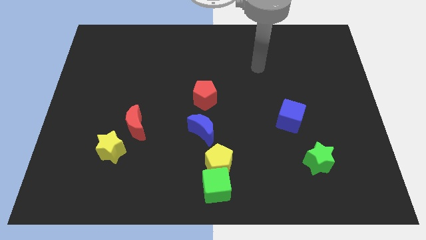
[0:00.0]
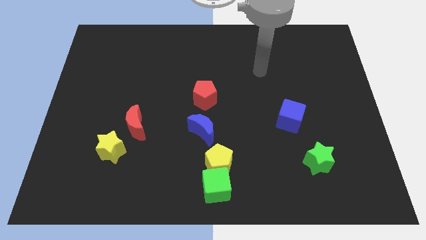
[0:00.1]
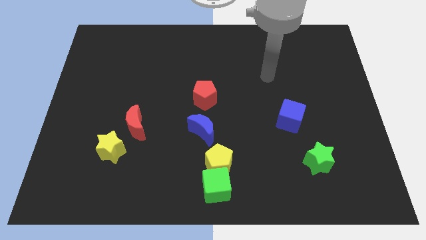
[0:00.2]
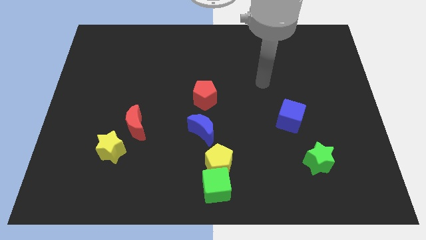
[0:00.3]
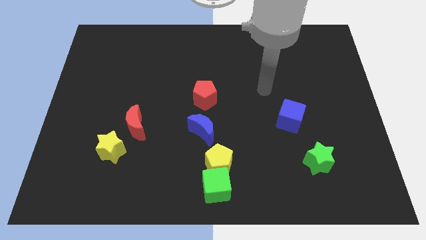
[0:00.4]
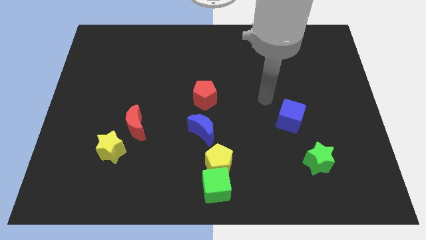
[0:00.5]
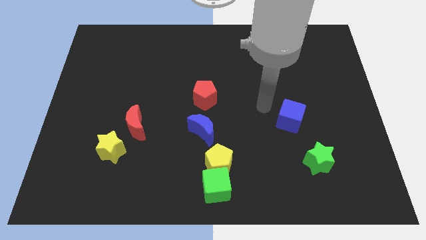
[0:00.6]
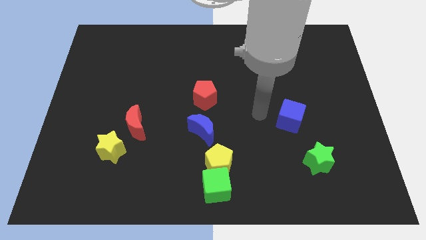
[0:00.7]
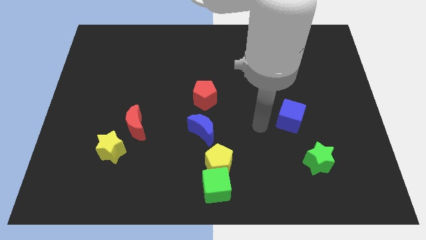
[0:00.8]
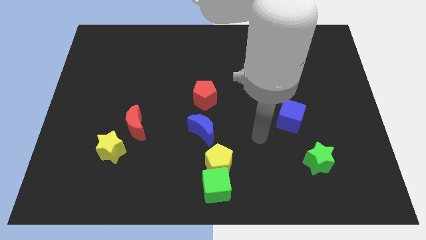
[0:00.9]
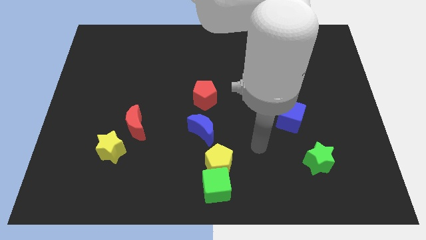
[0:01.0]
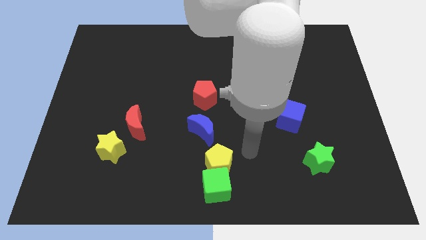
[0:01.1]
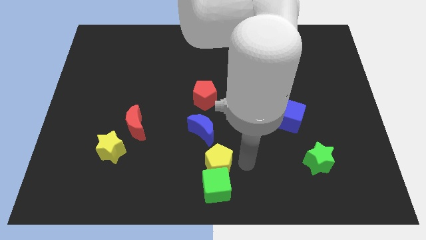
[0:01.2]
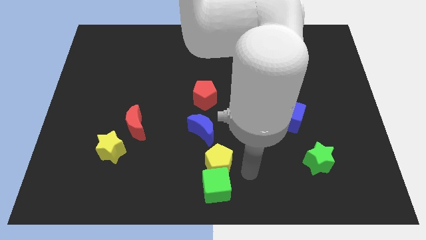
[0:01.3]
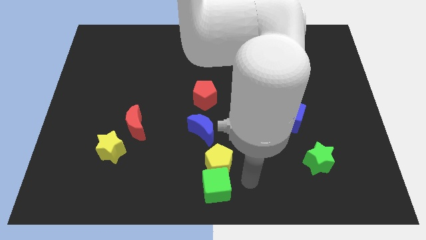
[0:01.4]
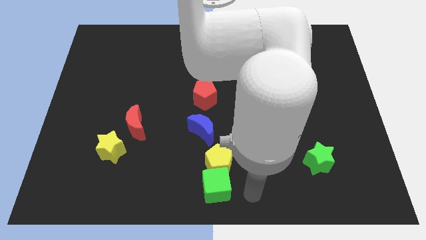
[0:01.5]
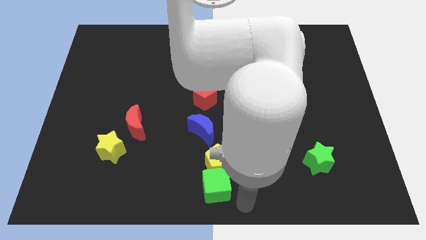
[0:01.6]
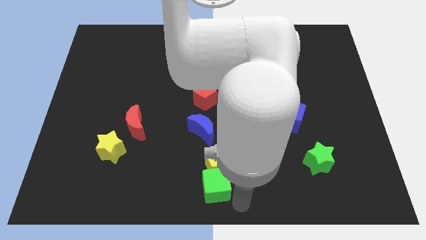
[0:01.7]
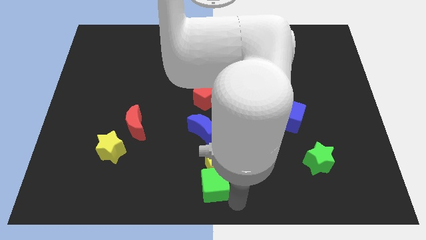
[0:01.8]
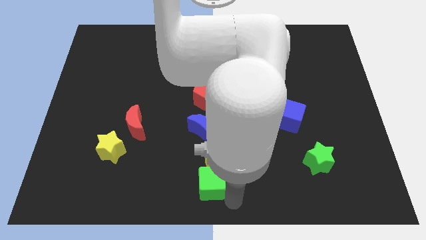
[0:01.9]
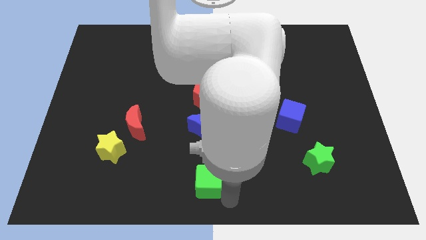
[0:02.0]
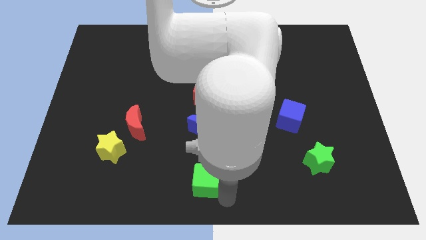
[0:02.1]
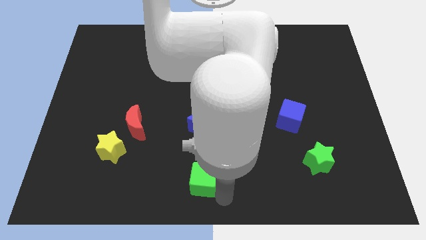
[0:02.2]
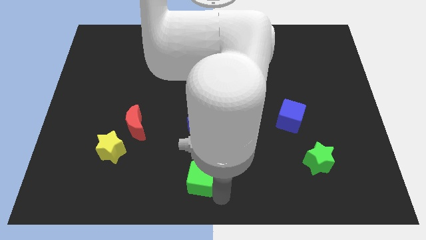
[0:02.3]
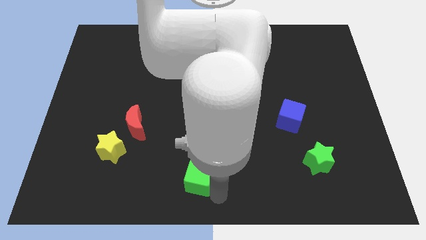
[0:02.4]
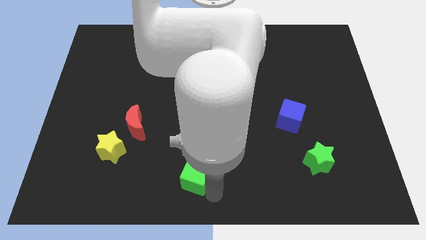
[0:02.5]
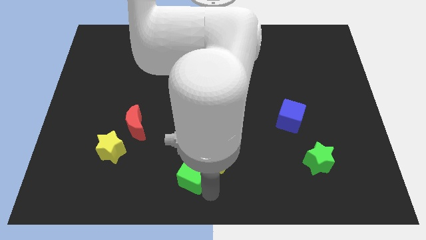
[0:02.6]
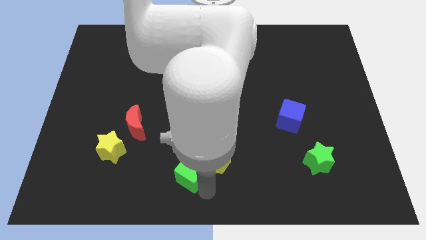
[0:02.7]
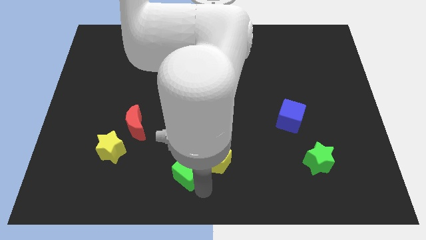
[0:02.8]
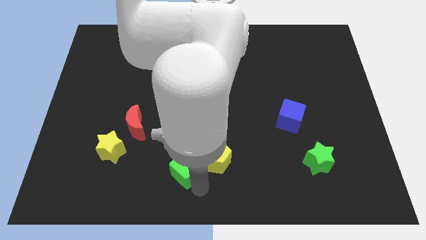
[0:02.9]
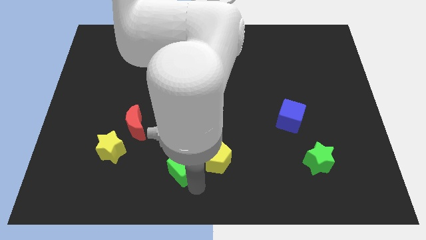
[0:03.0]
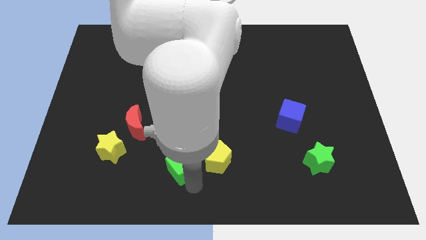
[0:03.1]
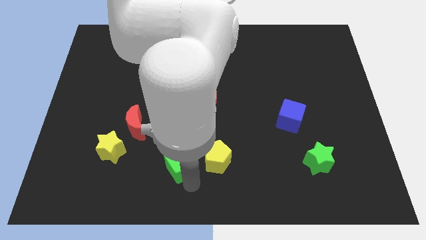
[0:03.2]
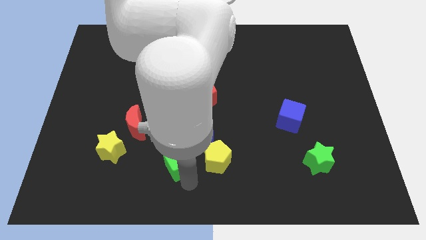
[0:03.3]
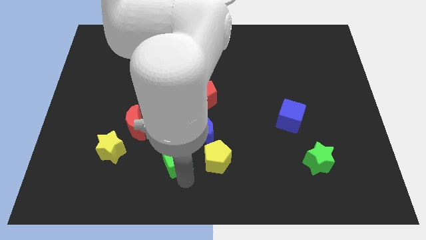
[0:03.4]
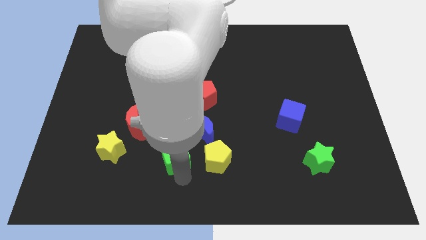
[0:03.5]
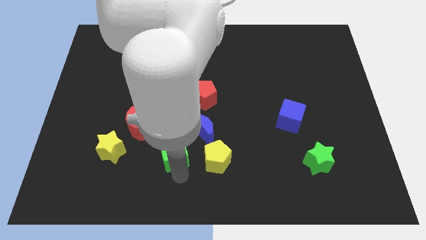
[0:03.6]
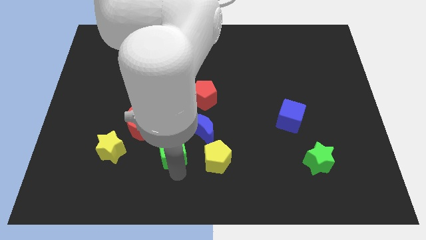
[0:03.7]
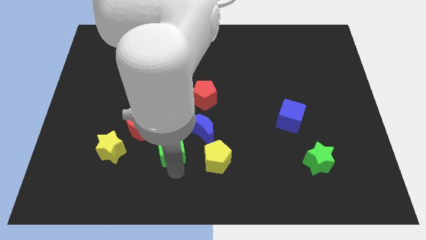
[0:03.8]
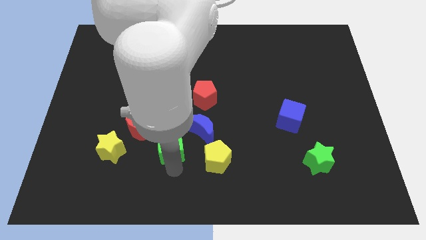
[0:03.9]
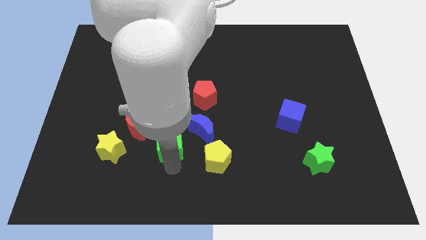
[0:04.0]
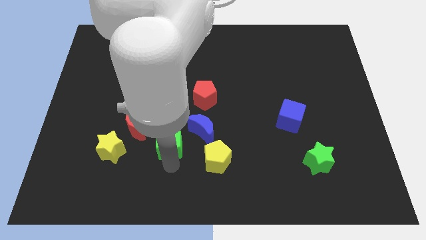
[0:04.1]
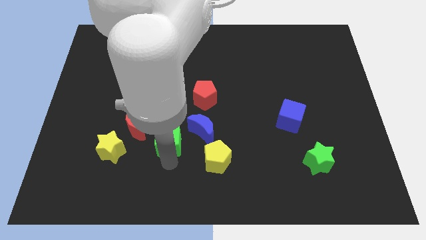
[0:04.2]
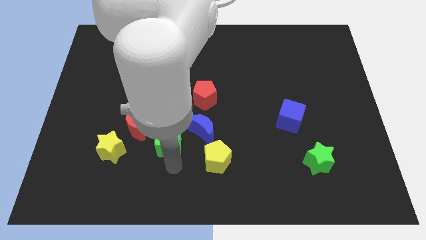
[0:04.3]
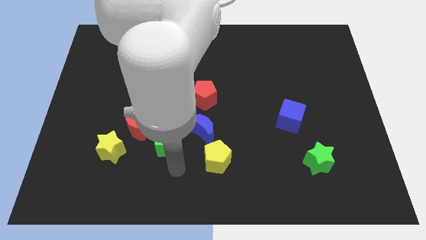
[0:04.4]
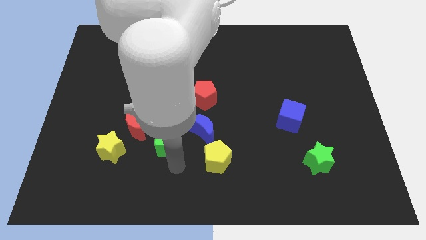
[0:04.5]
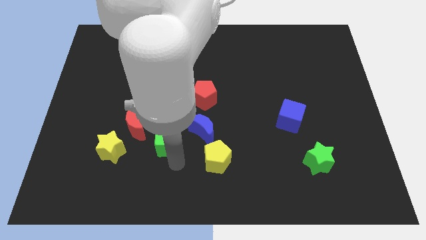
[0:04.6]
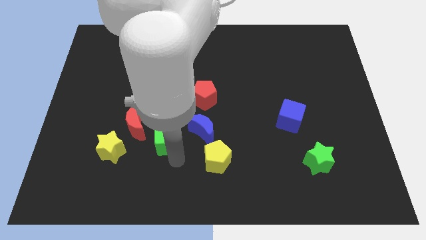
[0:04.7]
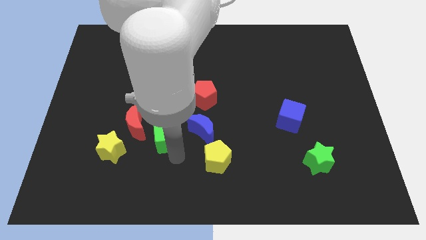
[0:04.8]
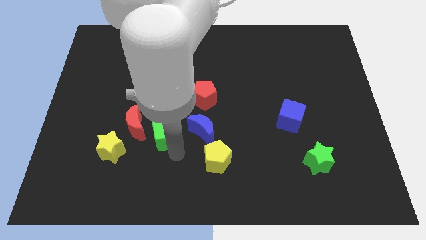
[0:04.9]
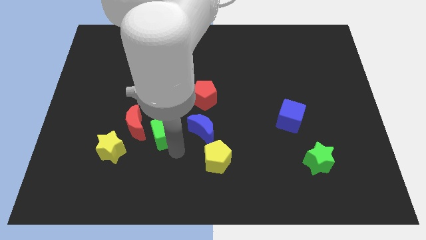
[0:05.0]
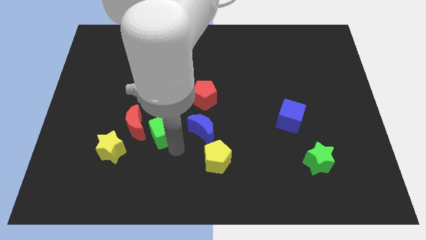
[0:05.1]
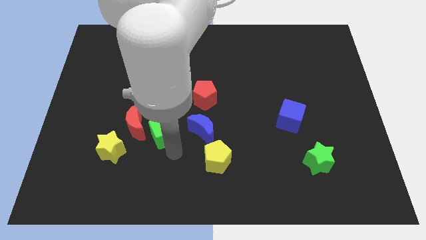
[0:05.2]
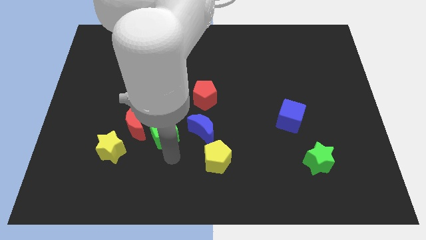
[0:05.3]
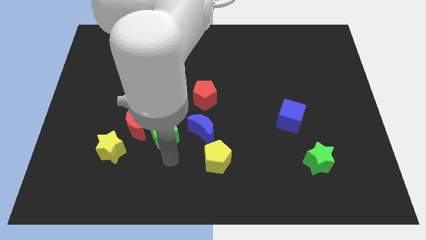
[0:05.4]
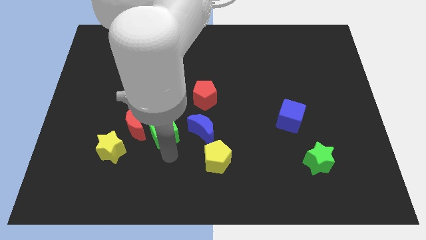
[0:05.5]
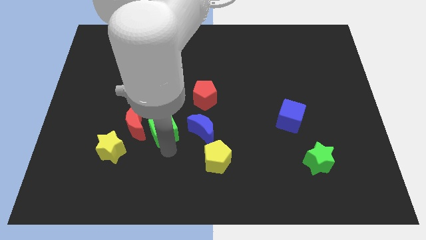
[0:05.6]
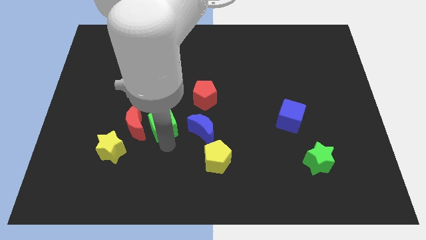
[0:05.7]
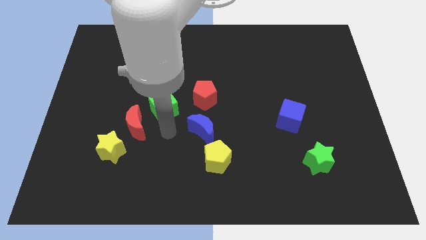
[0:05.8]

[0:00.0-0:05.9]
push the green cube up and left

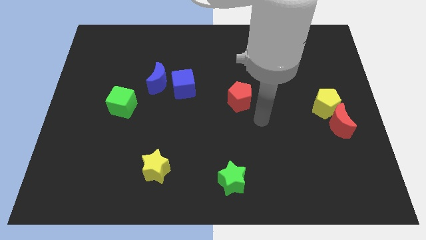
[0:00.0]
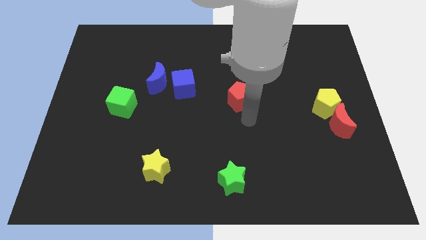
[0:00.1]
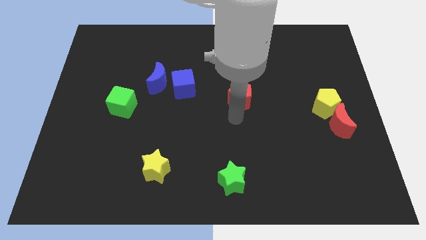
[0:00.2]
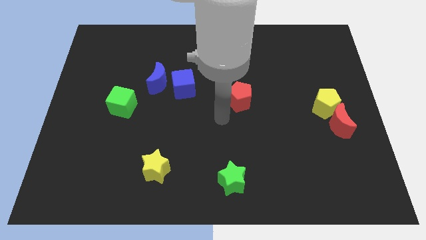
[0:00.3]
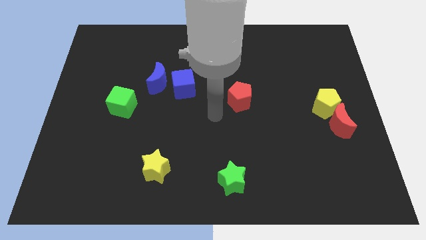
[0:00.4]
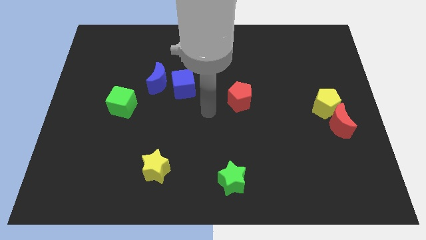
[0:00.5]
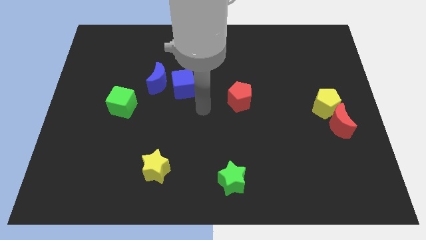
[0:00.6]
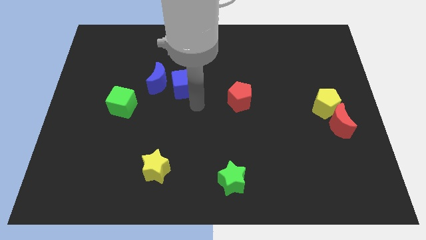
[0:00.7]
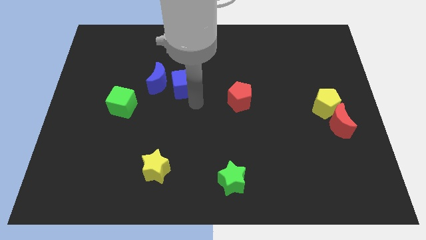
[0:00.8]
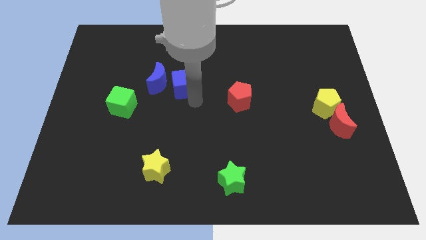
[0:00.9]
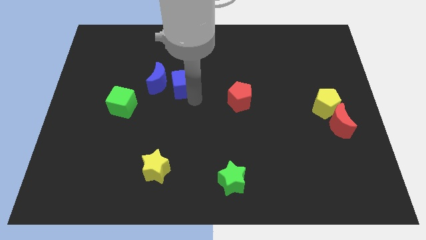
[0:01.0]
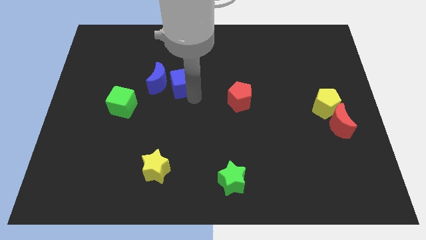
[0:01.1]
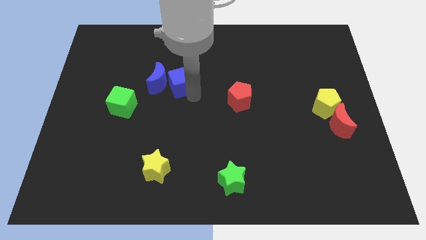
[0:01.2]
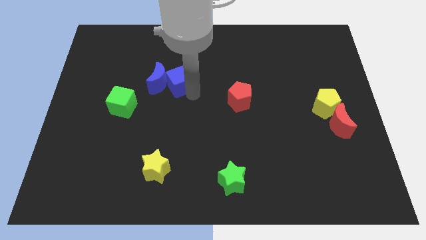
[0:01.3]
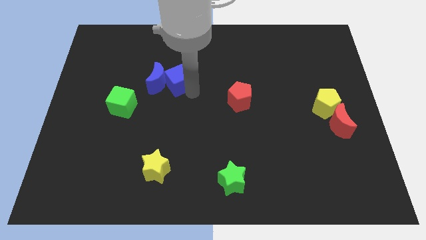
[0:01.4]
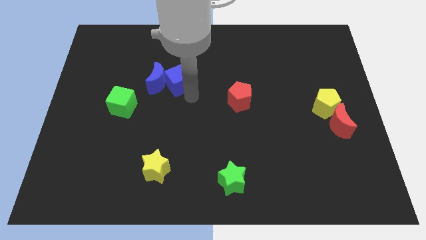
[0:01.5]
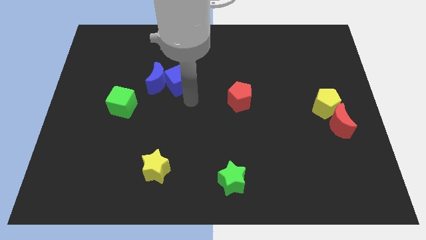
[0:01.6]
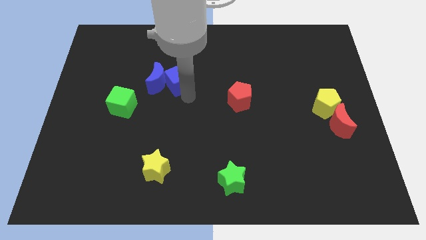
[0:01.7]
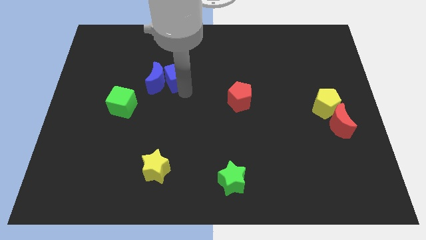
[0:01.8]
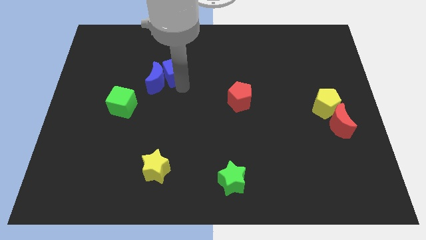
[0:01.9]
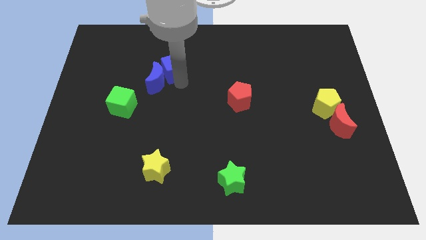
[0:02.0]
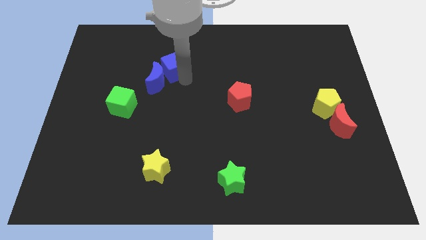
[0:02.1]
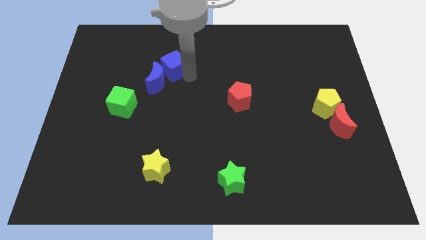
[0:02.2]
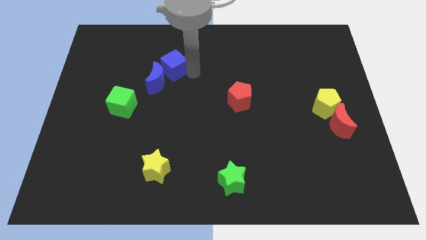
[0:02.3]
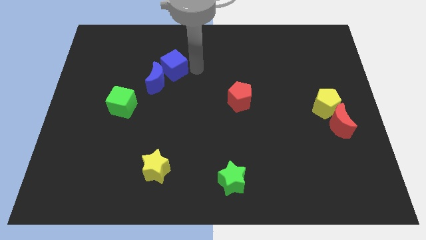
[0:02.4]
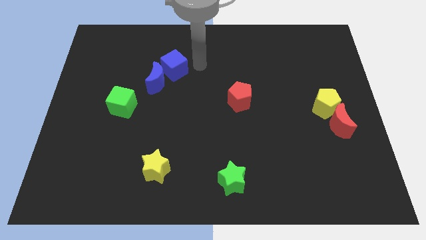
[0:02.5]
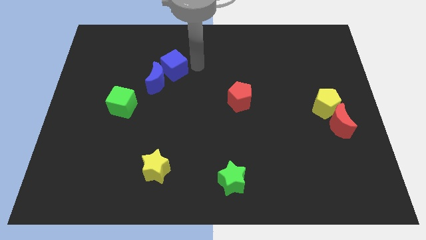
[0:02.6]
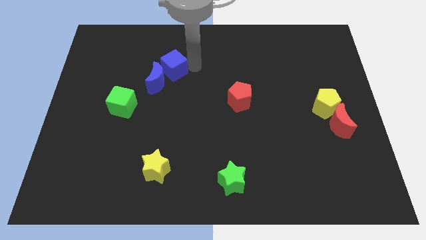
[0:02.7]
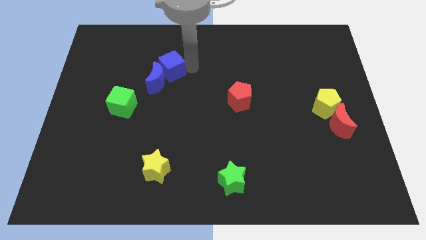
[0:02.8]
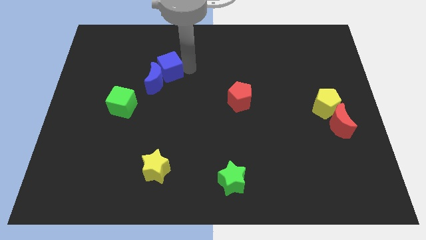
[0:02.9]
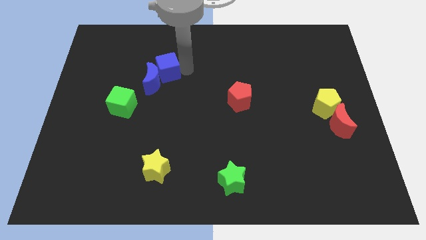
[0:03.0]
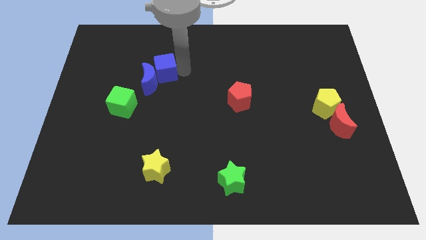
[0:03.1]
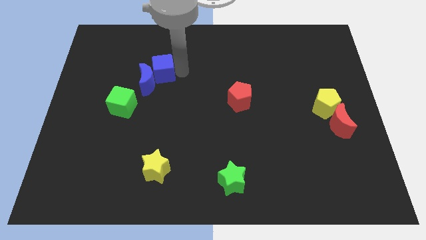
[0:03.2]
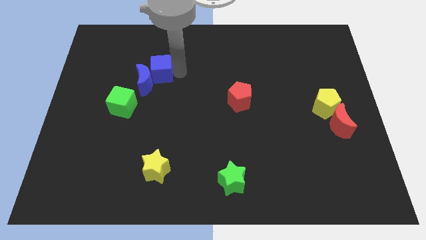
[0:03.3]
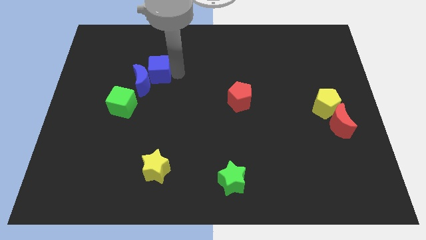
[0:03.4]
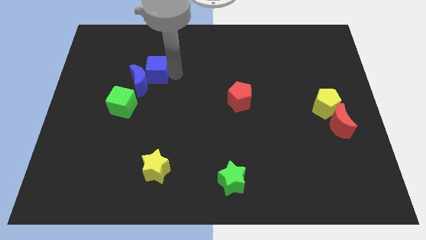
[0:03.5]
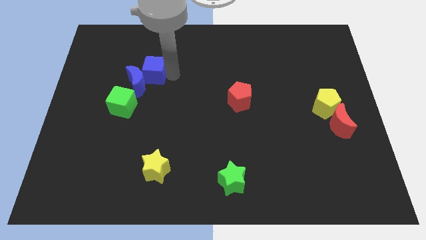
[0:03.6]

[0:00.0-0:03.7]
push the blue cube slightly to the left
